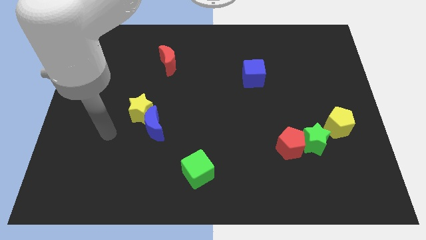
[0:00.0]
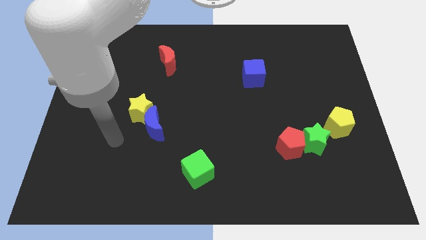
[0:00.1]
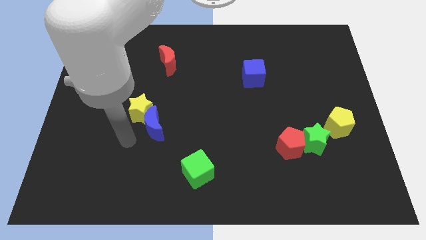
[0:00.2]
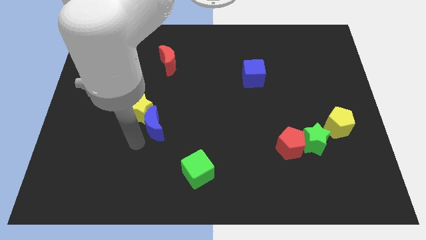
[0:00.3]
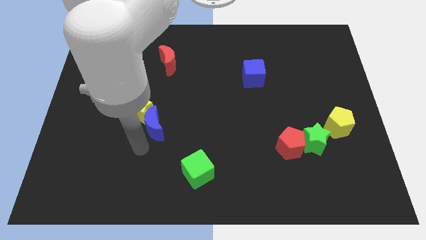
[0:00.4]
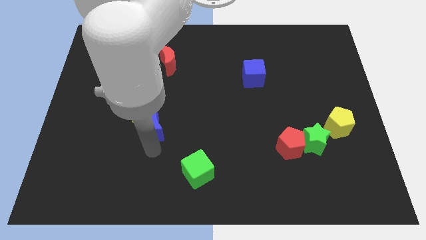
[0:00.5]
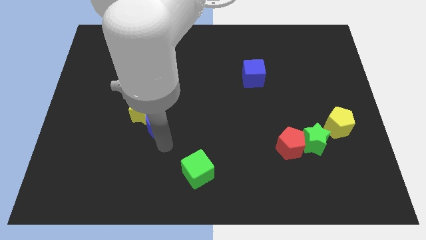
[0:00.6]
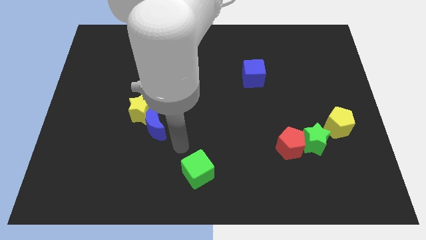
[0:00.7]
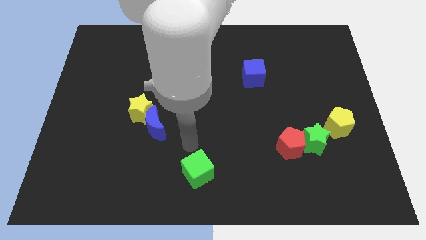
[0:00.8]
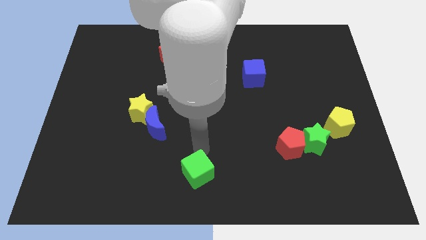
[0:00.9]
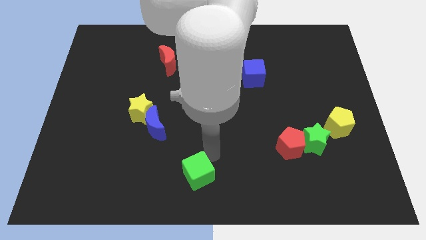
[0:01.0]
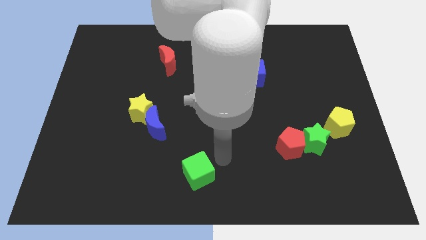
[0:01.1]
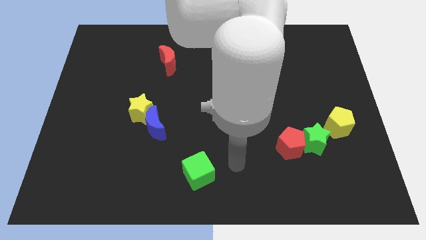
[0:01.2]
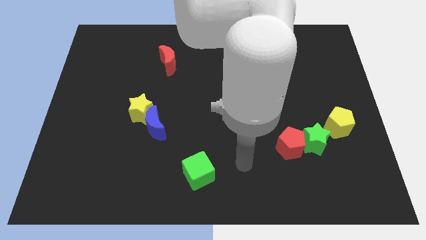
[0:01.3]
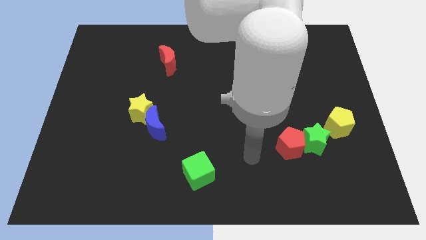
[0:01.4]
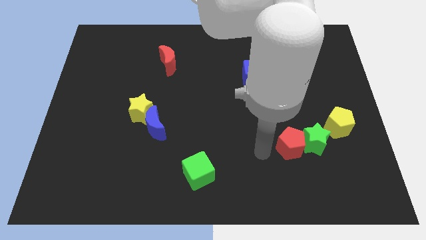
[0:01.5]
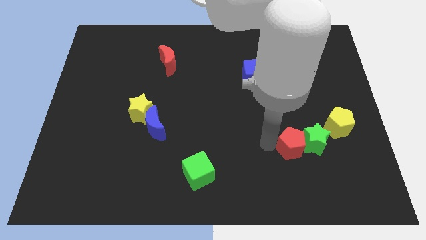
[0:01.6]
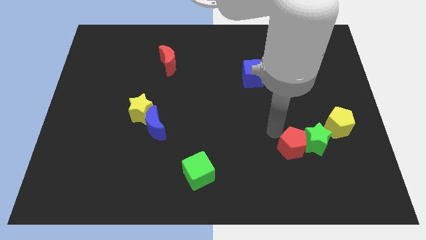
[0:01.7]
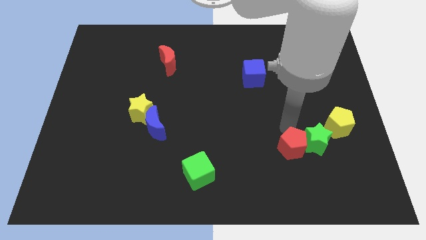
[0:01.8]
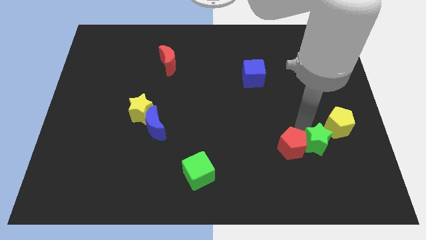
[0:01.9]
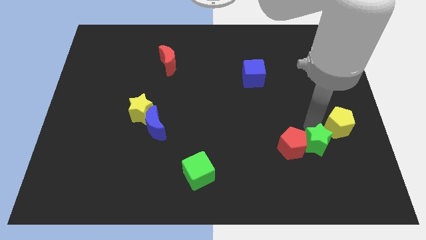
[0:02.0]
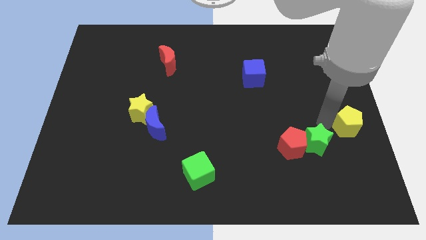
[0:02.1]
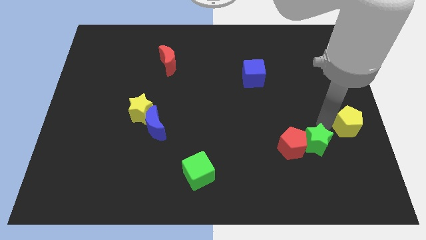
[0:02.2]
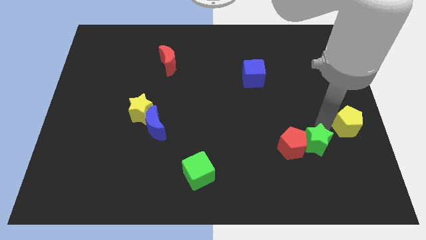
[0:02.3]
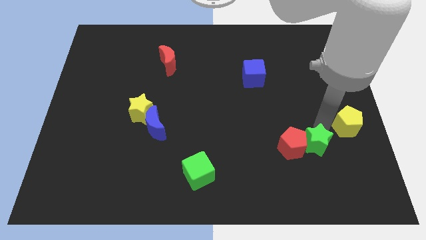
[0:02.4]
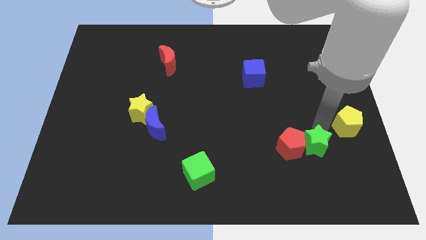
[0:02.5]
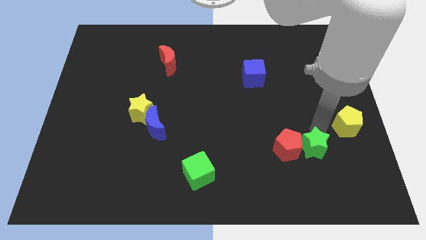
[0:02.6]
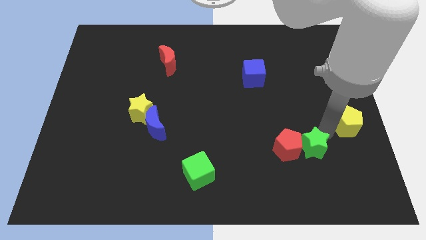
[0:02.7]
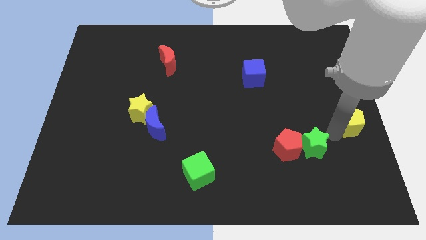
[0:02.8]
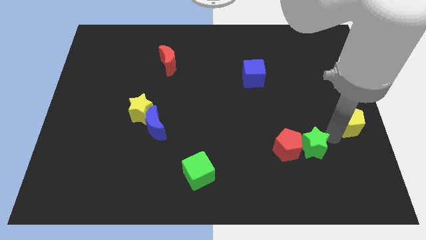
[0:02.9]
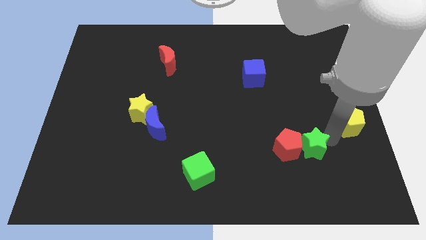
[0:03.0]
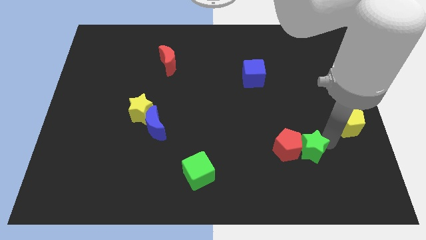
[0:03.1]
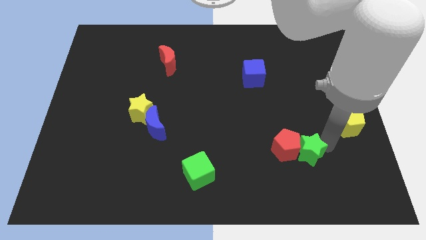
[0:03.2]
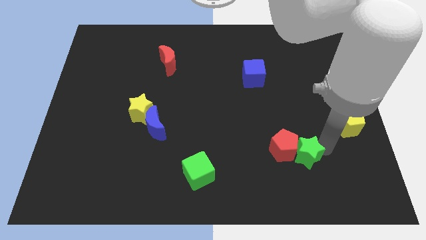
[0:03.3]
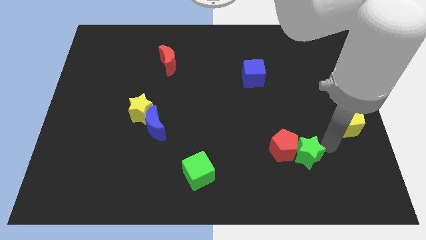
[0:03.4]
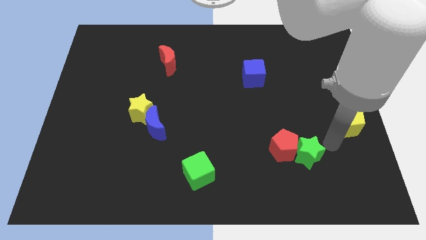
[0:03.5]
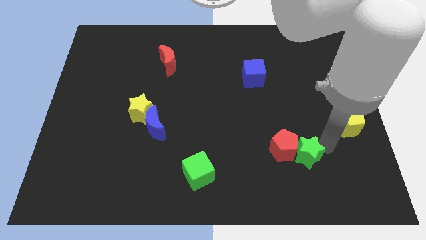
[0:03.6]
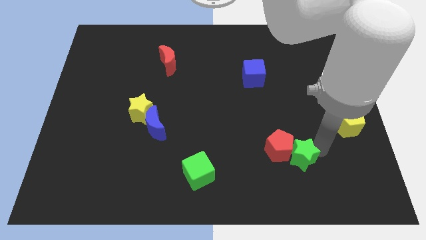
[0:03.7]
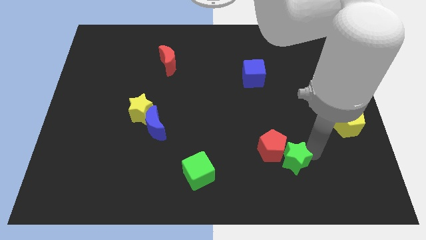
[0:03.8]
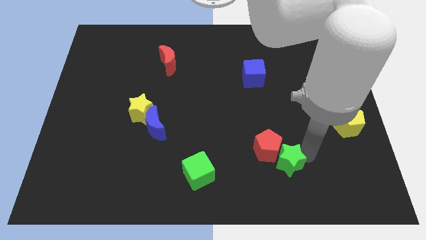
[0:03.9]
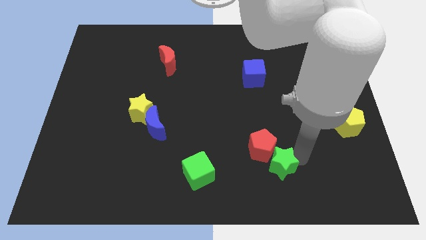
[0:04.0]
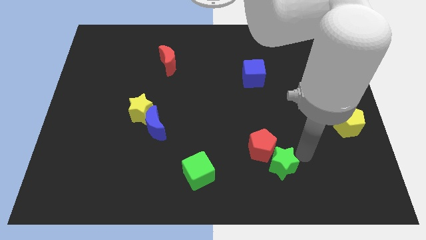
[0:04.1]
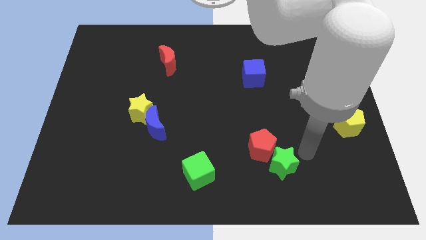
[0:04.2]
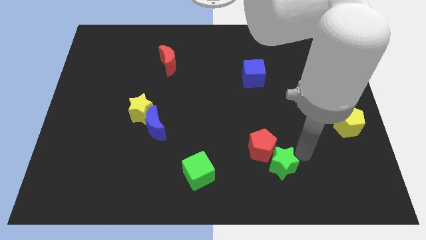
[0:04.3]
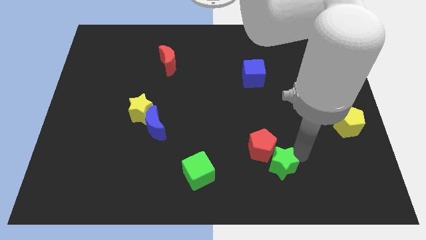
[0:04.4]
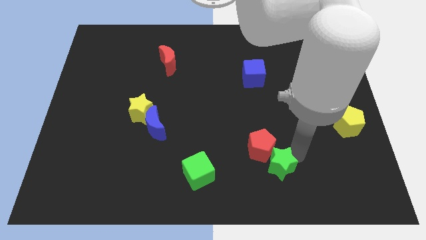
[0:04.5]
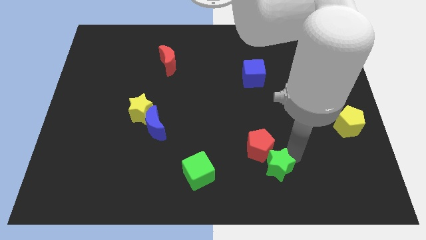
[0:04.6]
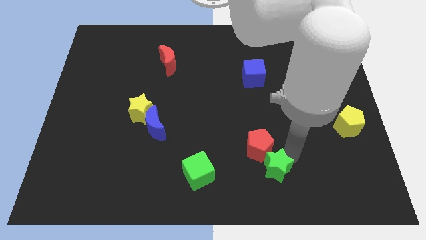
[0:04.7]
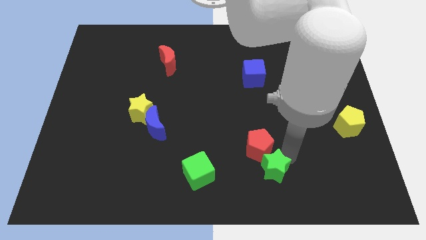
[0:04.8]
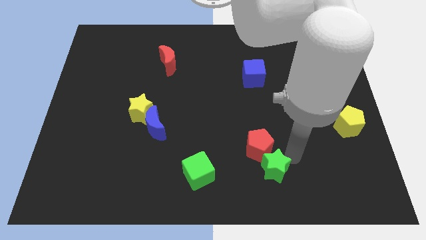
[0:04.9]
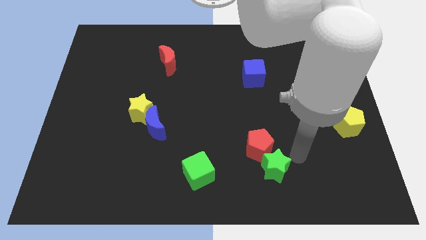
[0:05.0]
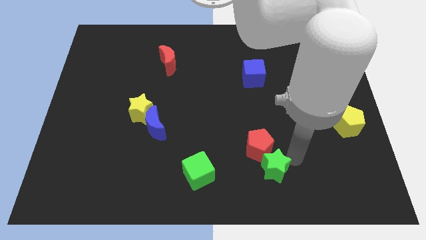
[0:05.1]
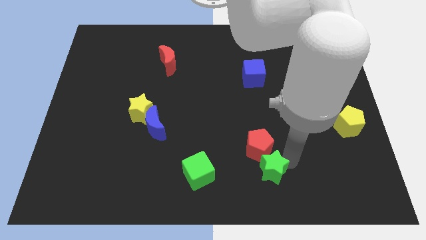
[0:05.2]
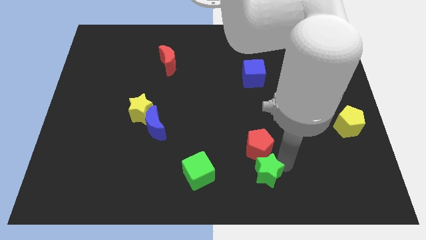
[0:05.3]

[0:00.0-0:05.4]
slide the green star to the bottom side

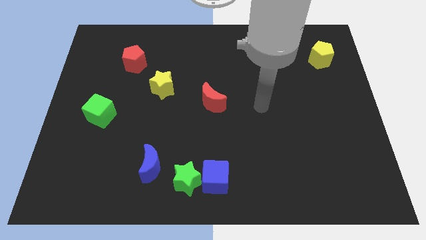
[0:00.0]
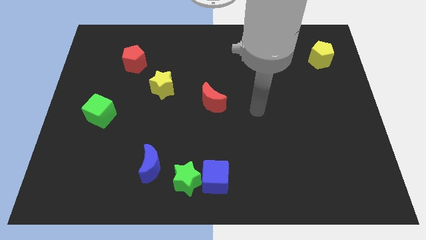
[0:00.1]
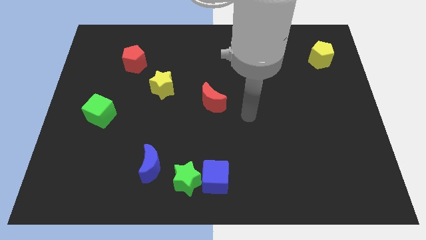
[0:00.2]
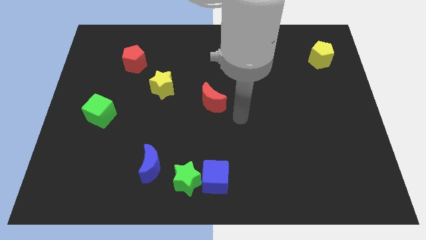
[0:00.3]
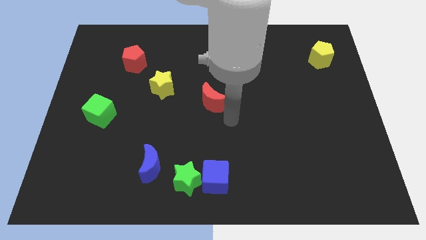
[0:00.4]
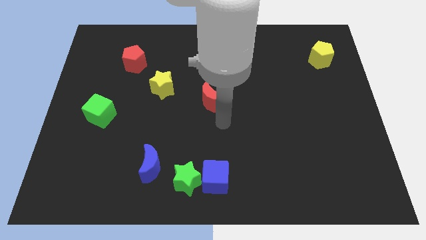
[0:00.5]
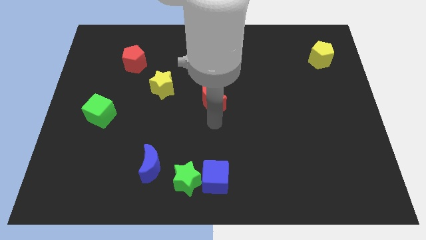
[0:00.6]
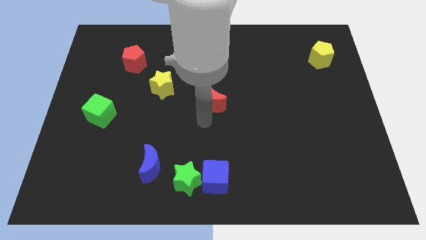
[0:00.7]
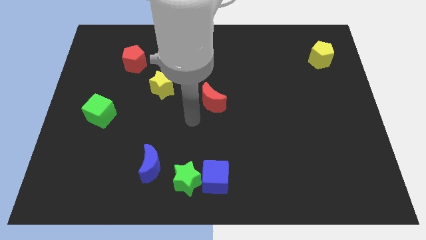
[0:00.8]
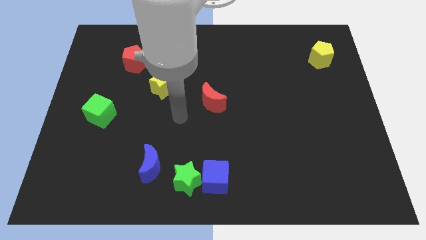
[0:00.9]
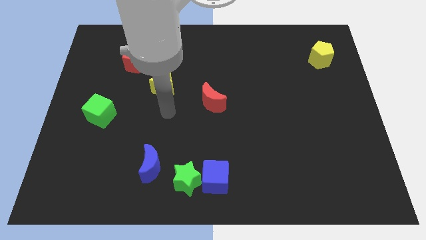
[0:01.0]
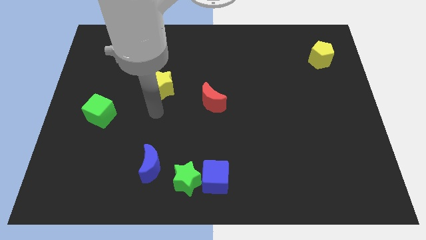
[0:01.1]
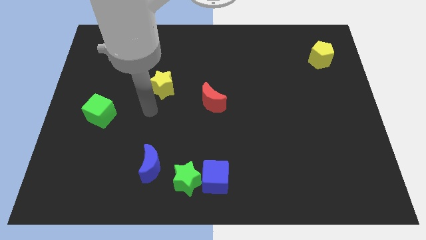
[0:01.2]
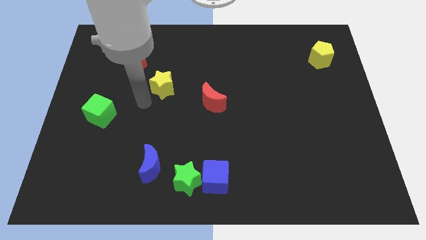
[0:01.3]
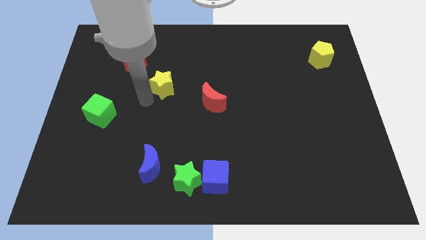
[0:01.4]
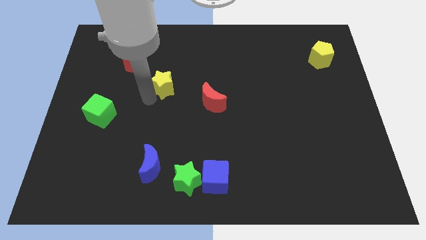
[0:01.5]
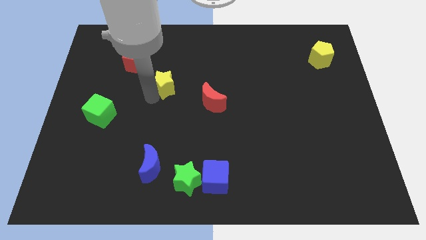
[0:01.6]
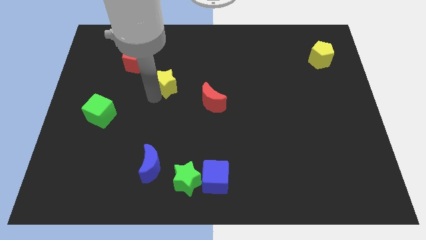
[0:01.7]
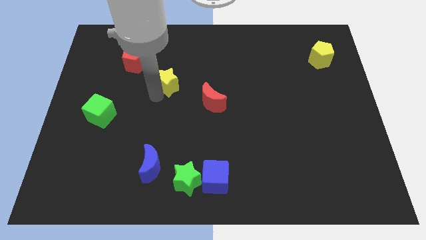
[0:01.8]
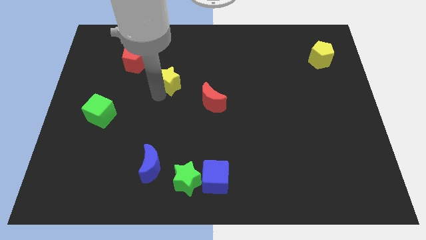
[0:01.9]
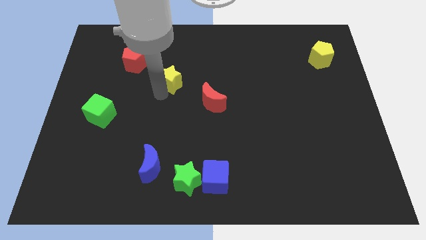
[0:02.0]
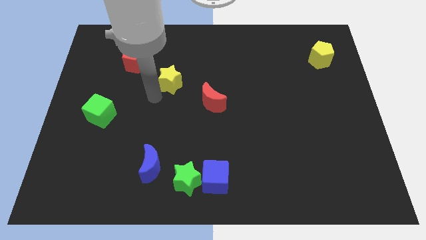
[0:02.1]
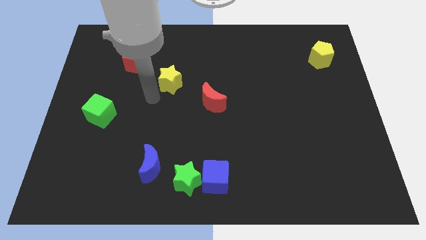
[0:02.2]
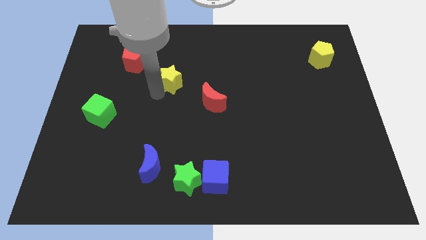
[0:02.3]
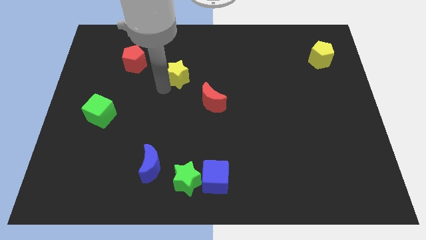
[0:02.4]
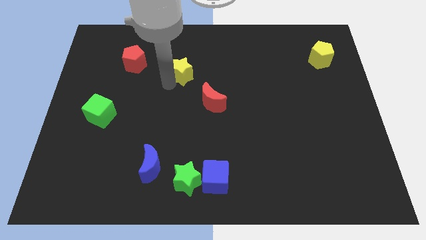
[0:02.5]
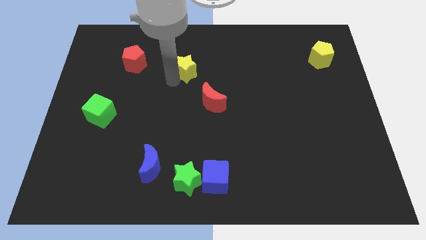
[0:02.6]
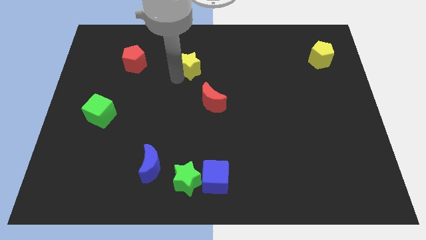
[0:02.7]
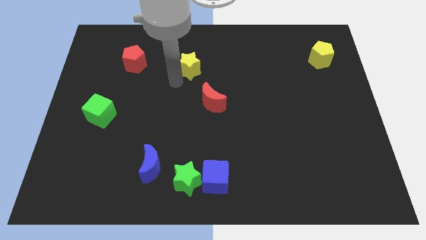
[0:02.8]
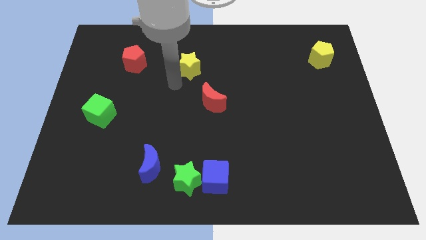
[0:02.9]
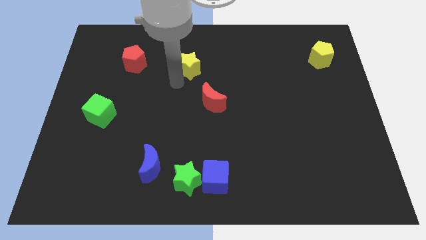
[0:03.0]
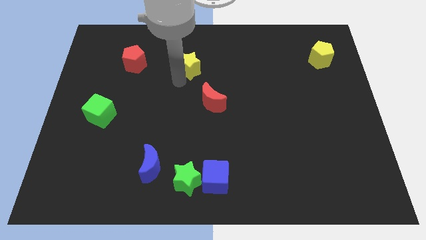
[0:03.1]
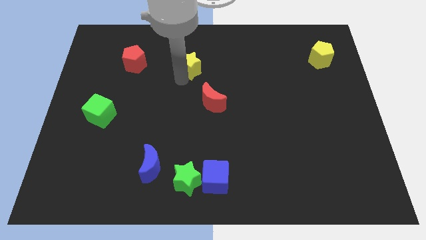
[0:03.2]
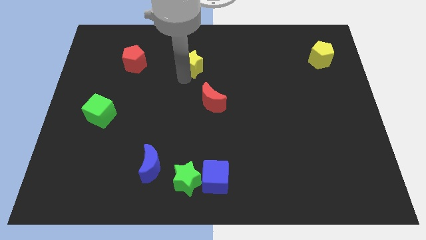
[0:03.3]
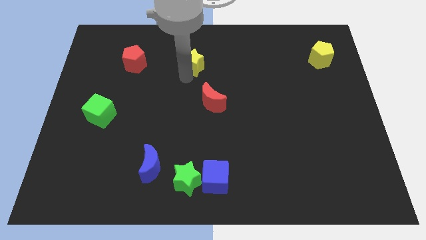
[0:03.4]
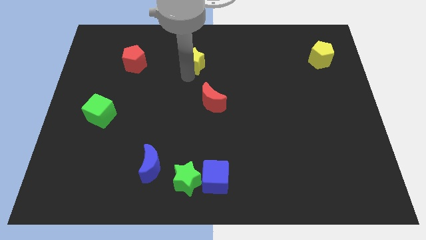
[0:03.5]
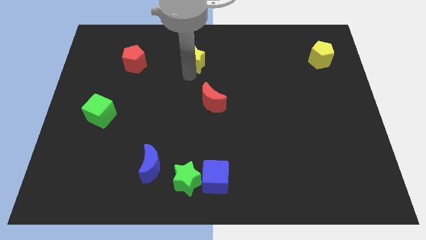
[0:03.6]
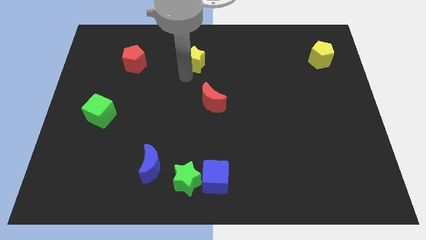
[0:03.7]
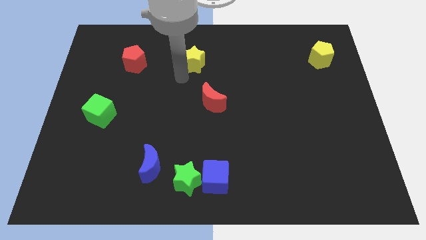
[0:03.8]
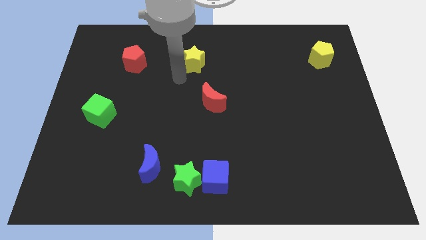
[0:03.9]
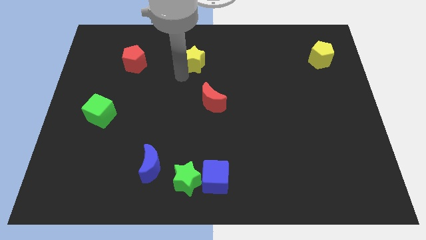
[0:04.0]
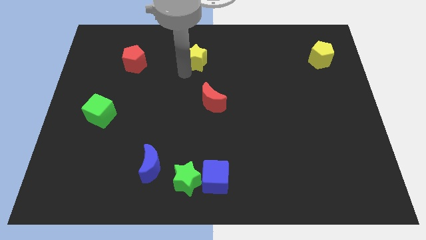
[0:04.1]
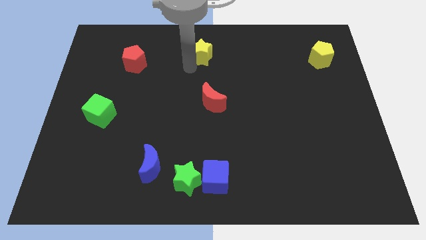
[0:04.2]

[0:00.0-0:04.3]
put the yellow star to the top side
